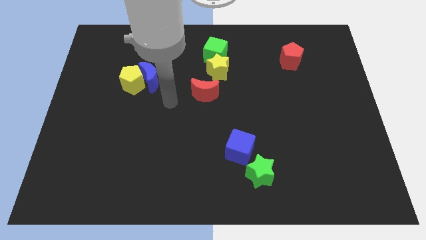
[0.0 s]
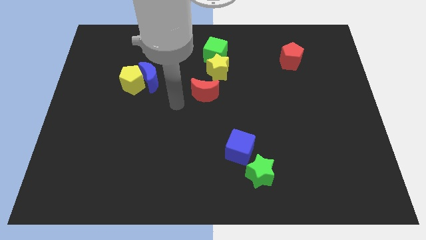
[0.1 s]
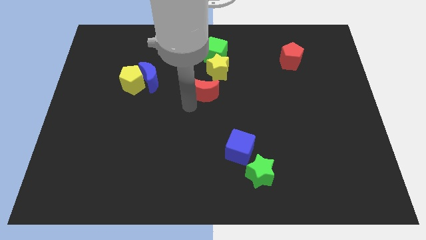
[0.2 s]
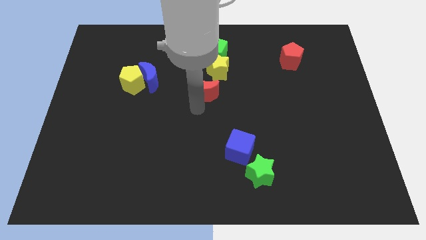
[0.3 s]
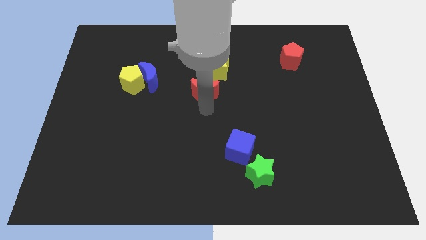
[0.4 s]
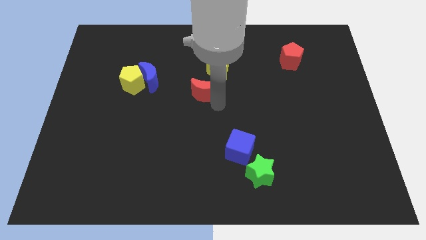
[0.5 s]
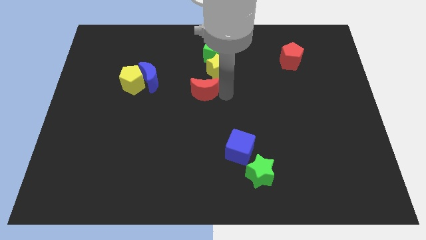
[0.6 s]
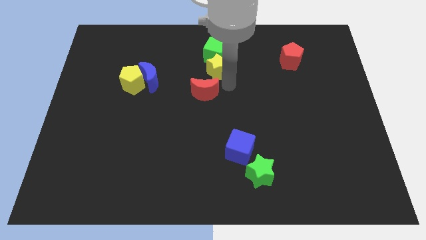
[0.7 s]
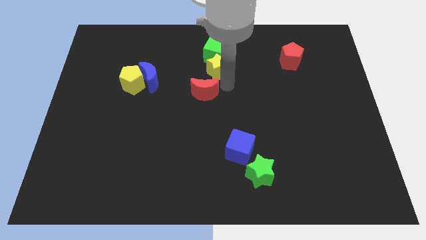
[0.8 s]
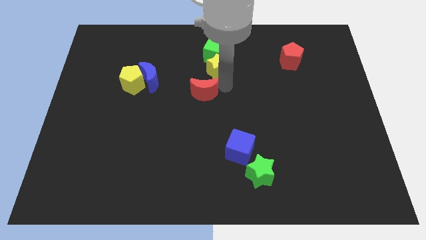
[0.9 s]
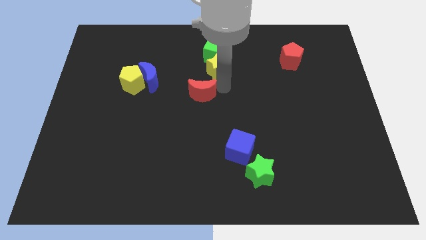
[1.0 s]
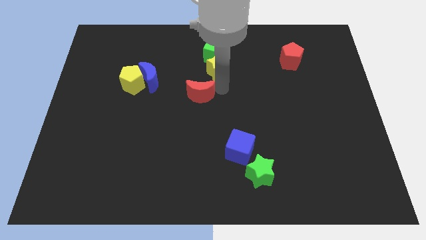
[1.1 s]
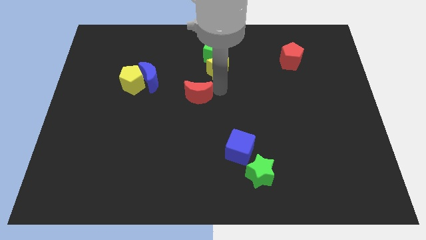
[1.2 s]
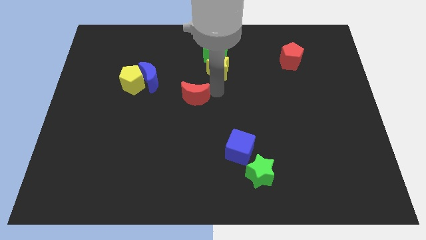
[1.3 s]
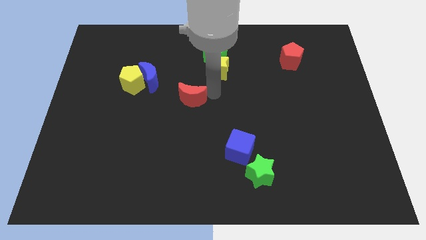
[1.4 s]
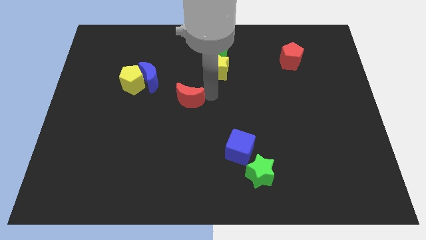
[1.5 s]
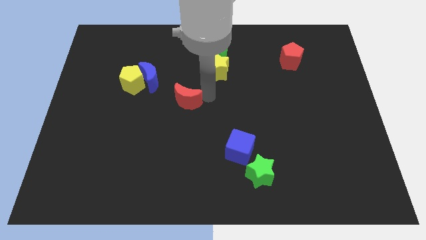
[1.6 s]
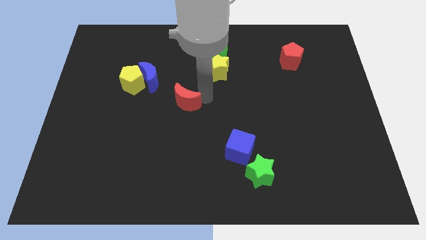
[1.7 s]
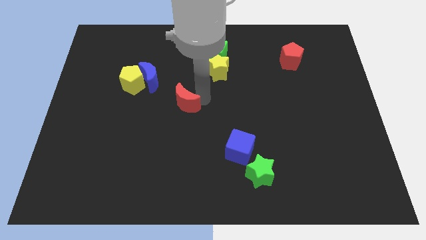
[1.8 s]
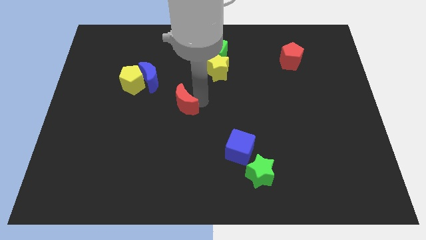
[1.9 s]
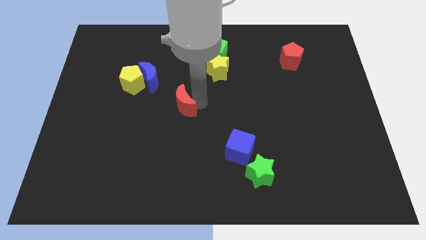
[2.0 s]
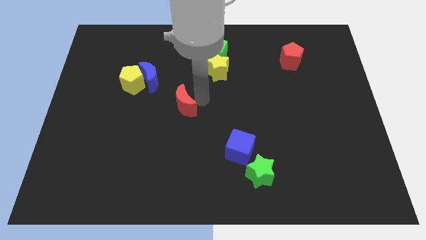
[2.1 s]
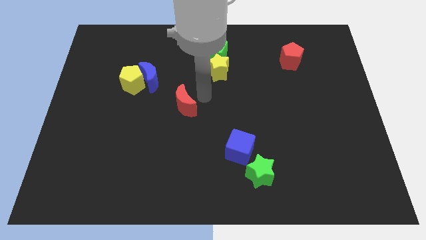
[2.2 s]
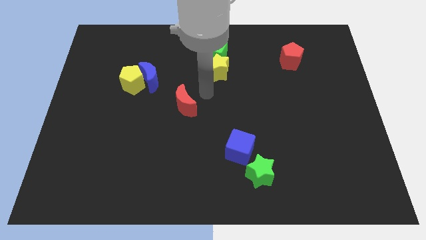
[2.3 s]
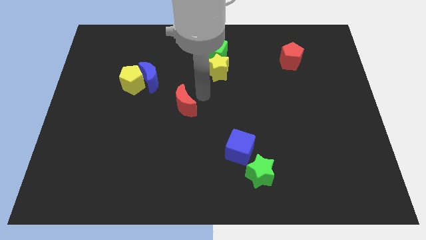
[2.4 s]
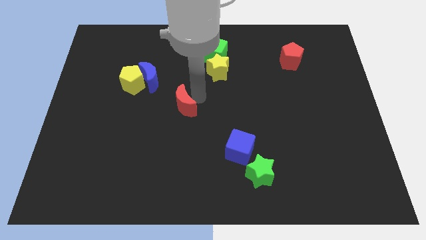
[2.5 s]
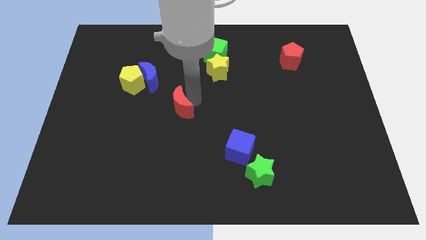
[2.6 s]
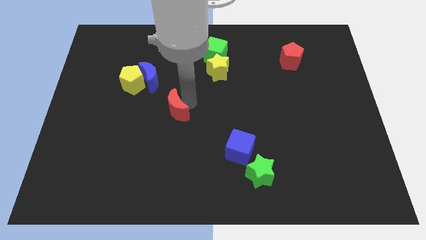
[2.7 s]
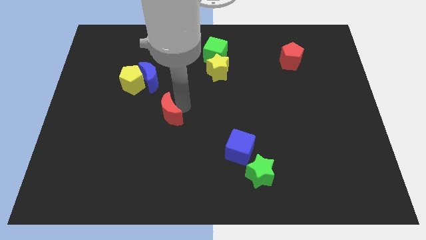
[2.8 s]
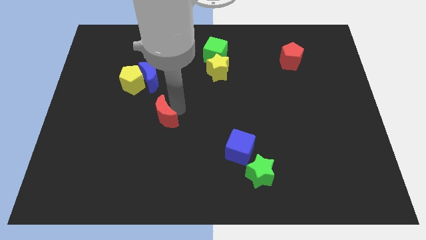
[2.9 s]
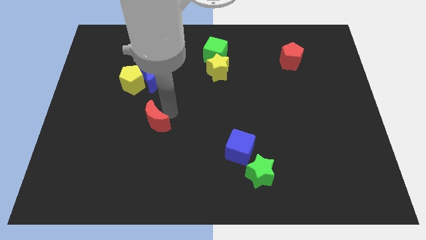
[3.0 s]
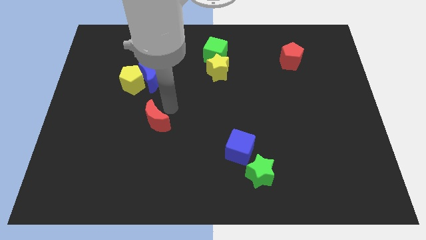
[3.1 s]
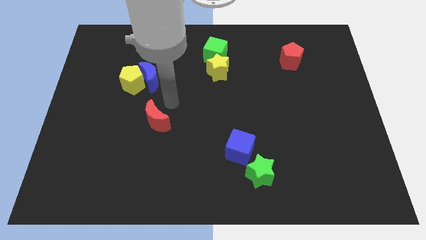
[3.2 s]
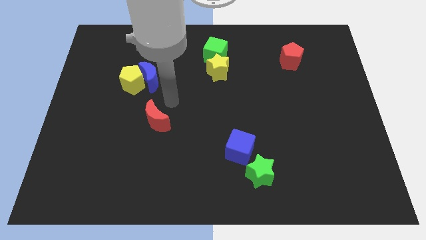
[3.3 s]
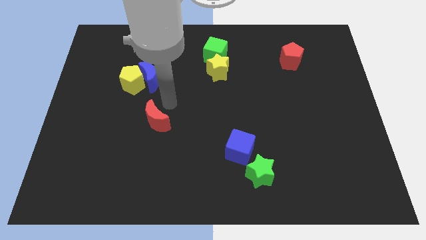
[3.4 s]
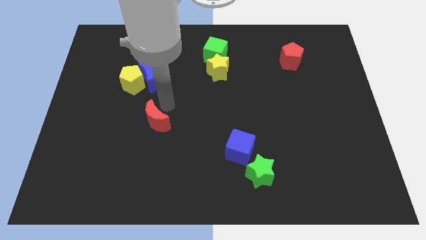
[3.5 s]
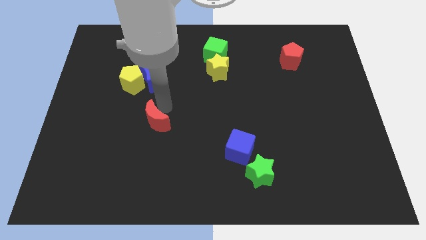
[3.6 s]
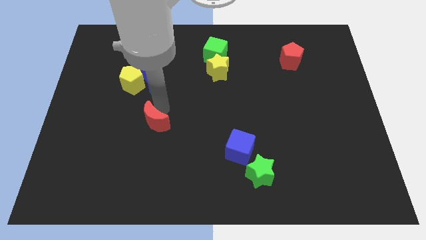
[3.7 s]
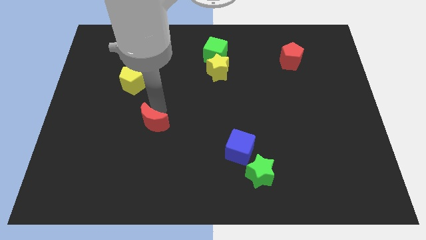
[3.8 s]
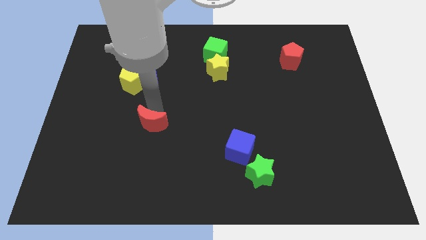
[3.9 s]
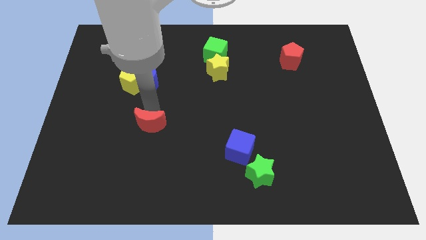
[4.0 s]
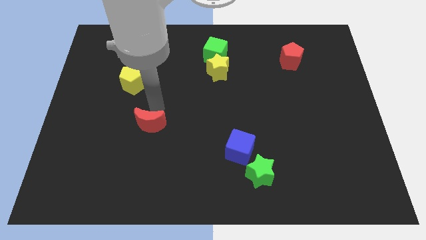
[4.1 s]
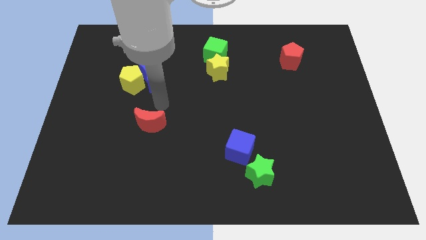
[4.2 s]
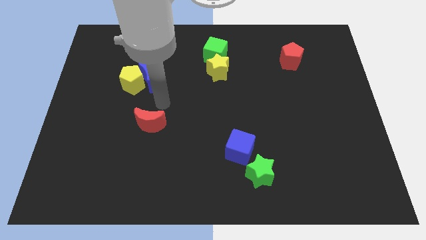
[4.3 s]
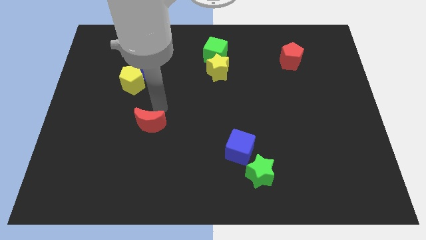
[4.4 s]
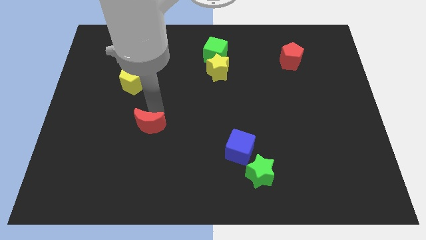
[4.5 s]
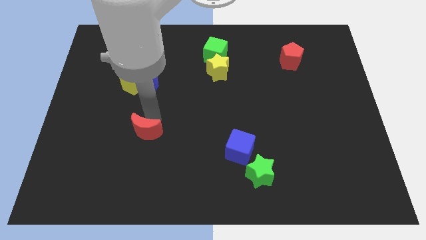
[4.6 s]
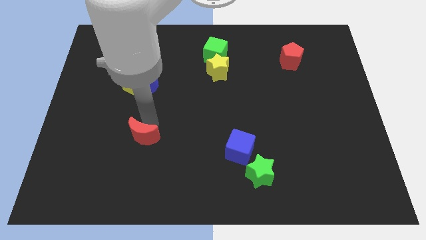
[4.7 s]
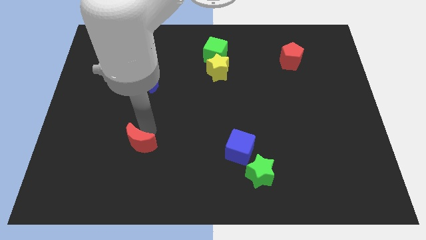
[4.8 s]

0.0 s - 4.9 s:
move the red moon downwards and left

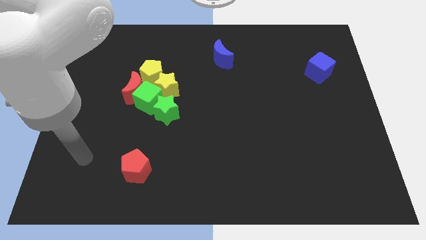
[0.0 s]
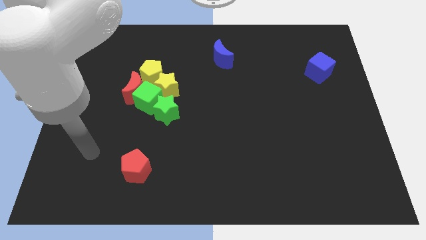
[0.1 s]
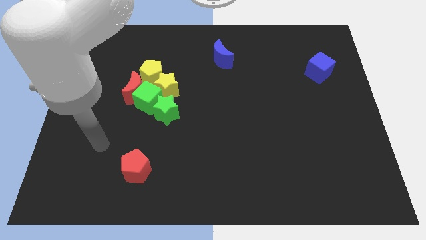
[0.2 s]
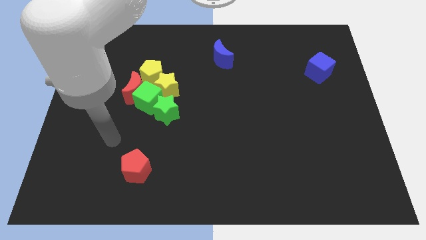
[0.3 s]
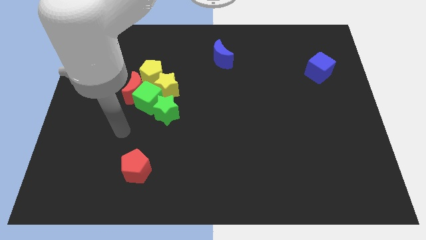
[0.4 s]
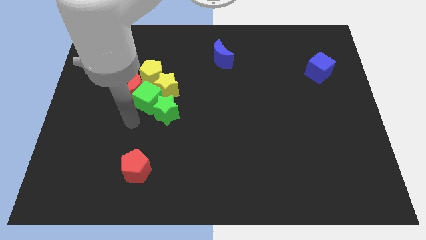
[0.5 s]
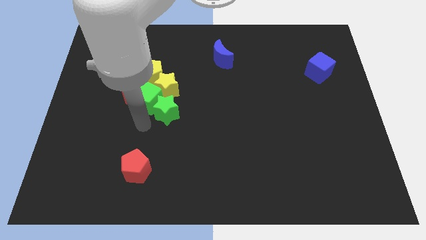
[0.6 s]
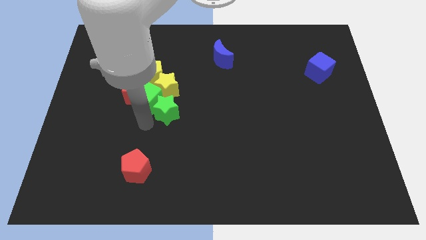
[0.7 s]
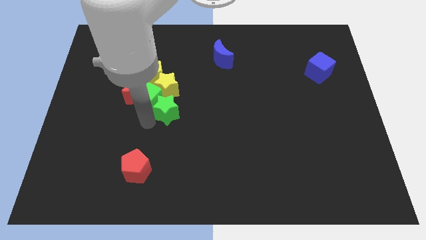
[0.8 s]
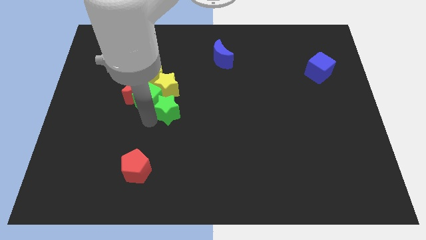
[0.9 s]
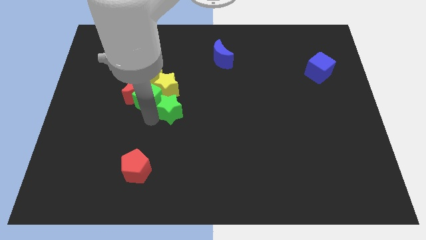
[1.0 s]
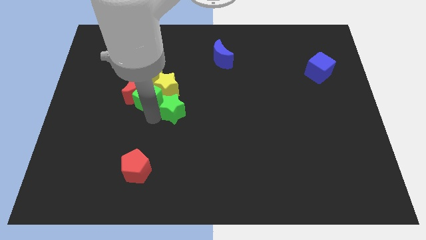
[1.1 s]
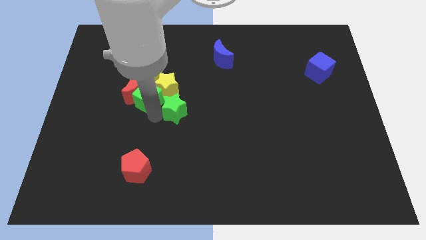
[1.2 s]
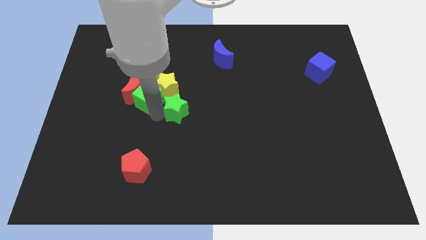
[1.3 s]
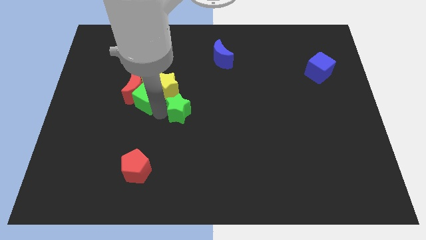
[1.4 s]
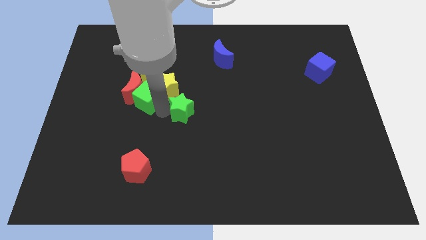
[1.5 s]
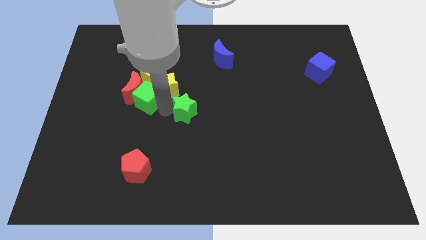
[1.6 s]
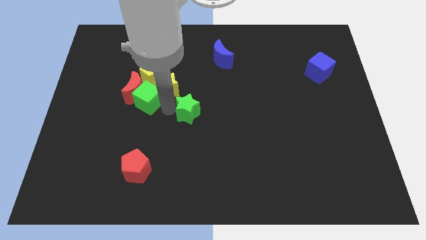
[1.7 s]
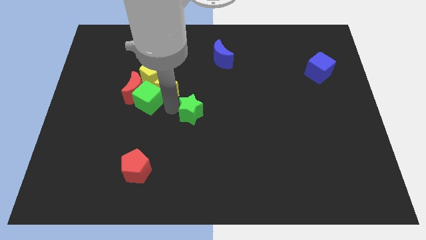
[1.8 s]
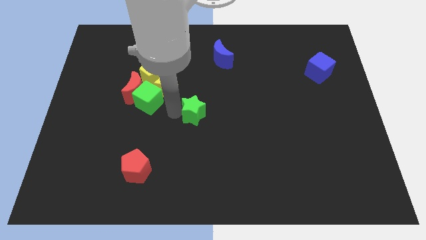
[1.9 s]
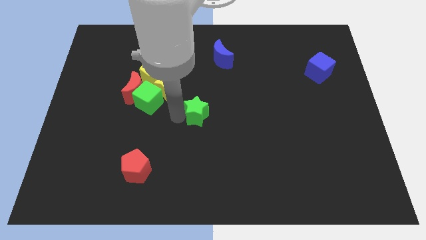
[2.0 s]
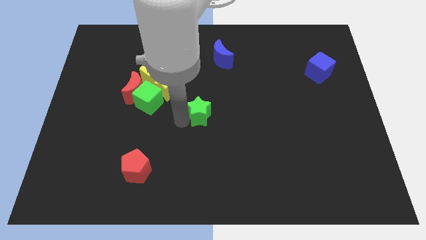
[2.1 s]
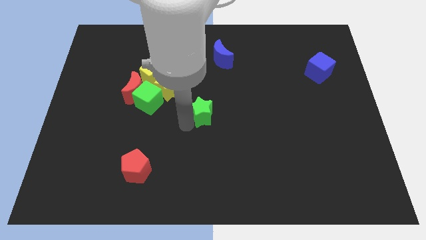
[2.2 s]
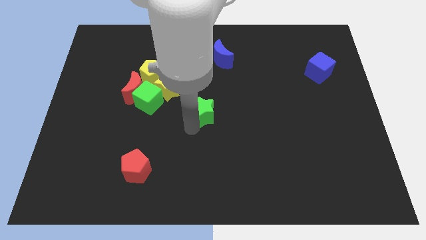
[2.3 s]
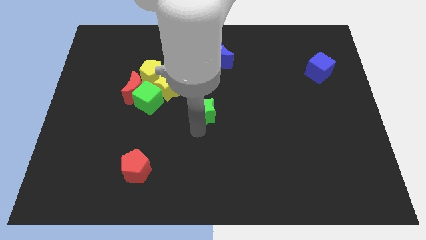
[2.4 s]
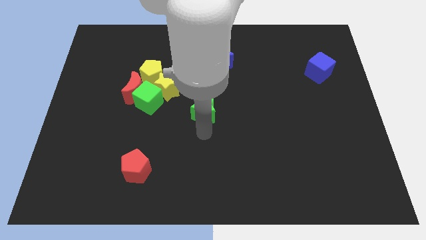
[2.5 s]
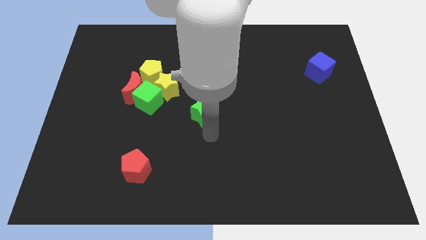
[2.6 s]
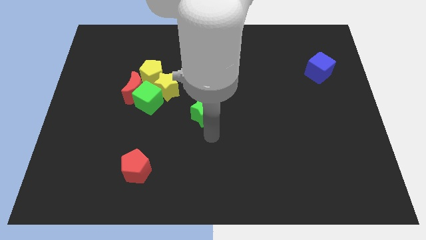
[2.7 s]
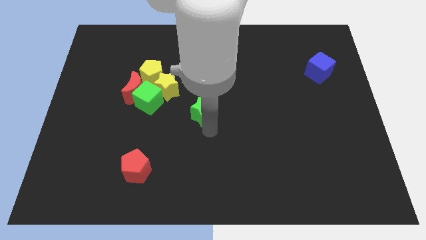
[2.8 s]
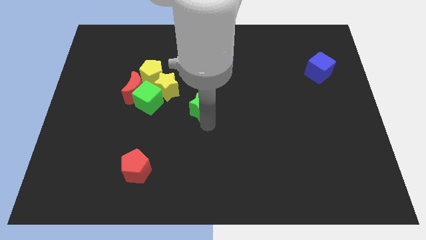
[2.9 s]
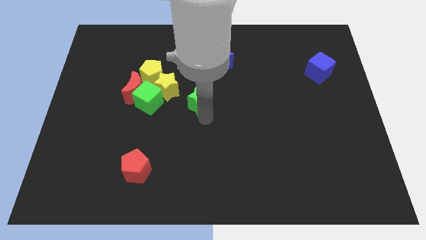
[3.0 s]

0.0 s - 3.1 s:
push the green star slightly upwards and then to the right
